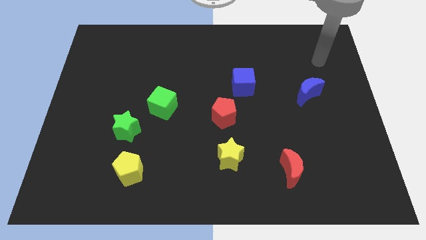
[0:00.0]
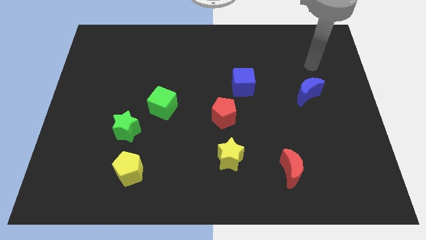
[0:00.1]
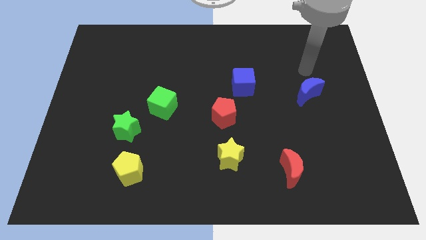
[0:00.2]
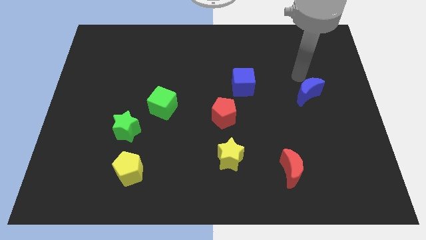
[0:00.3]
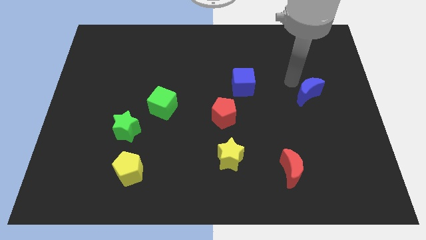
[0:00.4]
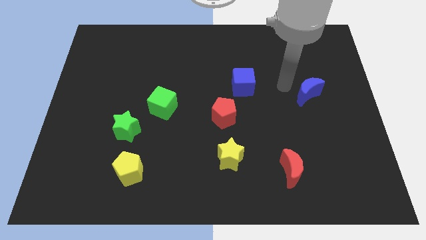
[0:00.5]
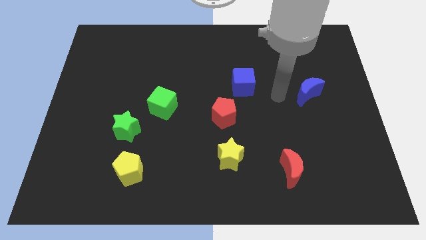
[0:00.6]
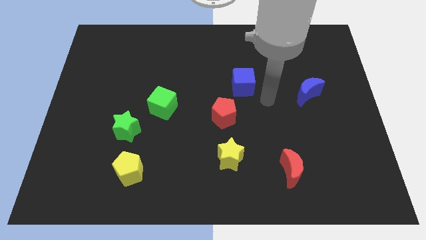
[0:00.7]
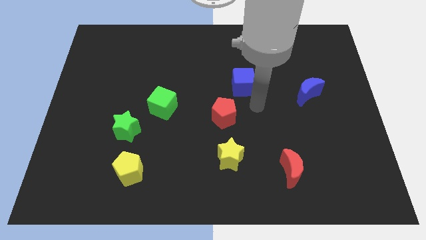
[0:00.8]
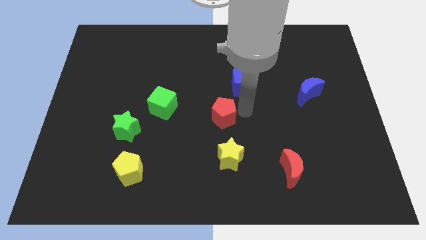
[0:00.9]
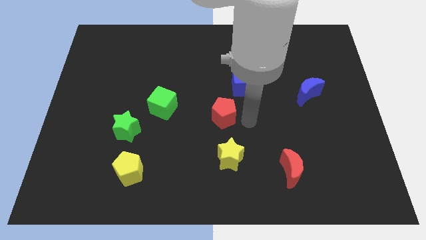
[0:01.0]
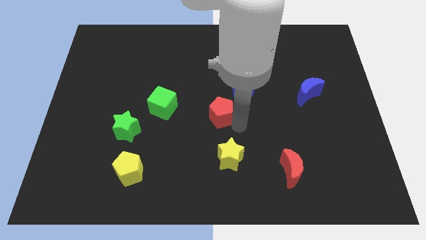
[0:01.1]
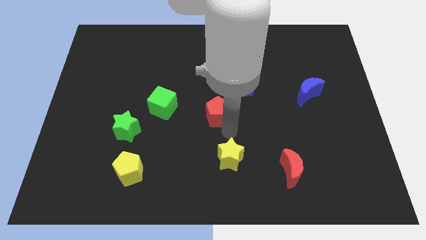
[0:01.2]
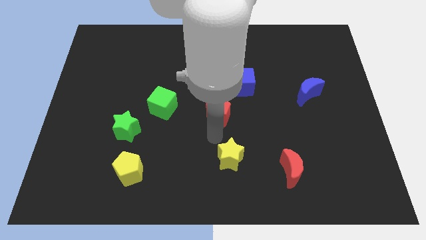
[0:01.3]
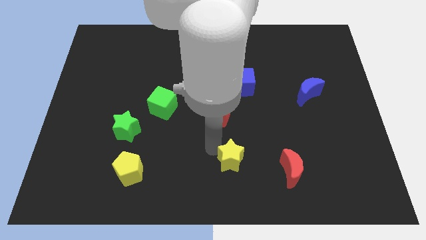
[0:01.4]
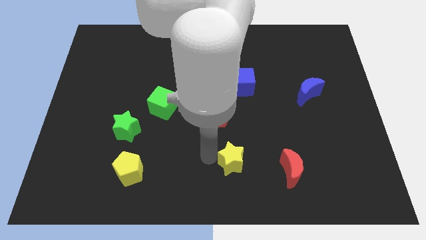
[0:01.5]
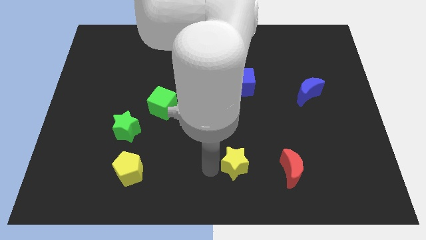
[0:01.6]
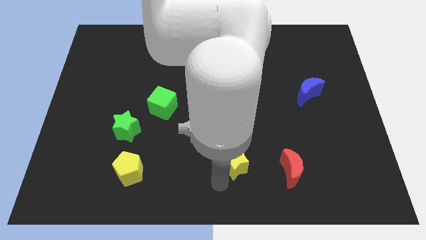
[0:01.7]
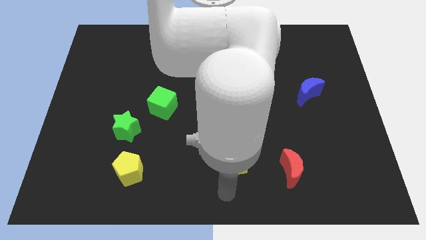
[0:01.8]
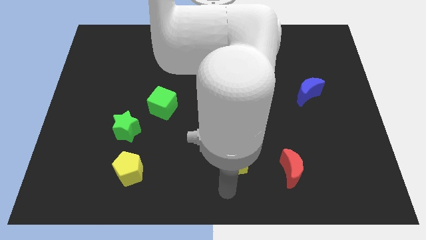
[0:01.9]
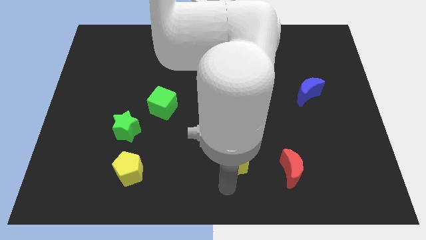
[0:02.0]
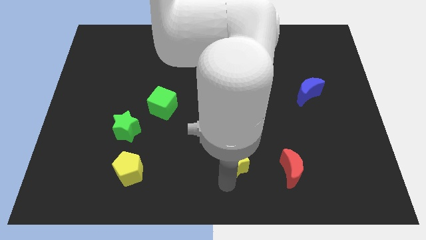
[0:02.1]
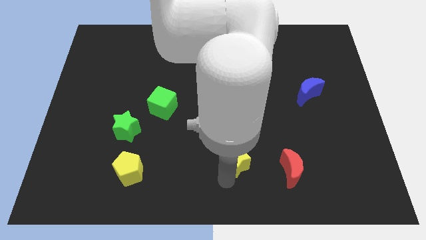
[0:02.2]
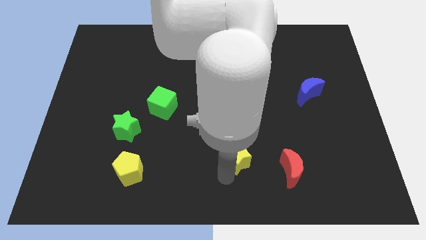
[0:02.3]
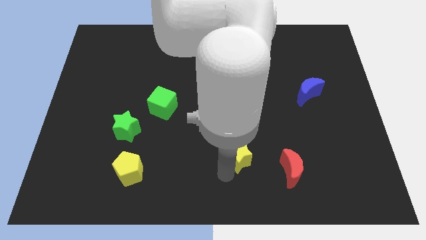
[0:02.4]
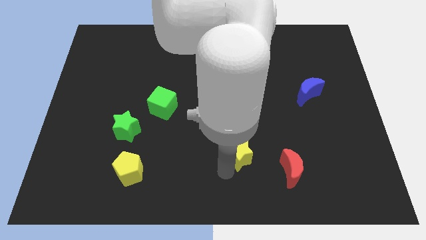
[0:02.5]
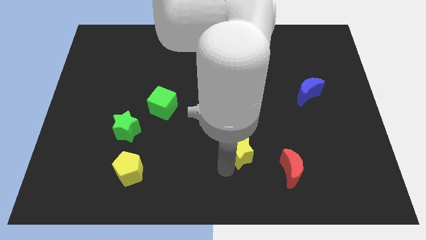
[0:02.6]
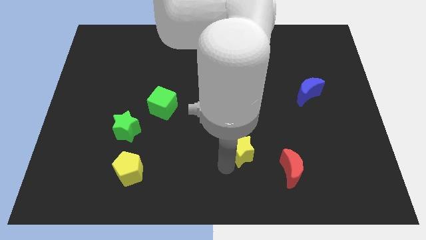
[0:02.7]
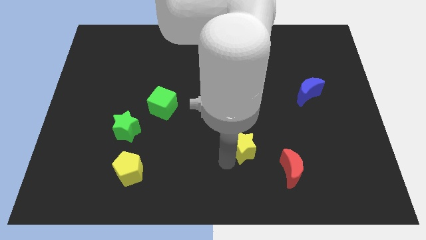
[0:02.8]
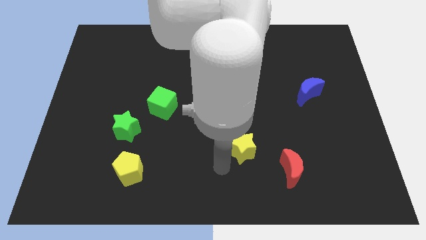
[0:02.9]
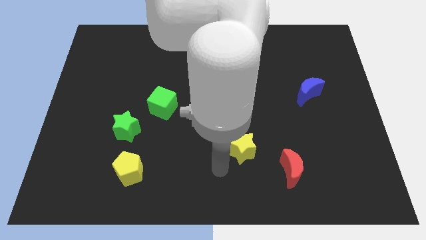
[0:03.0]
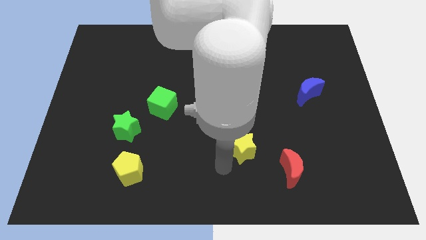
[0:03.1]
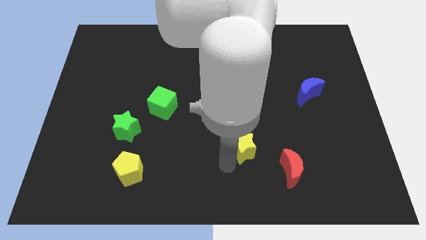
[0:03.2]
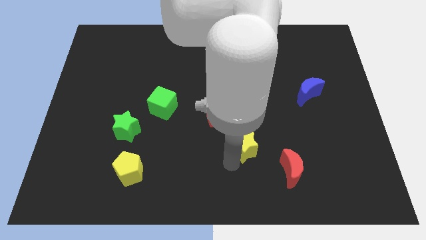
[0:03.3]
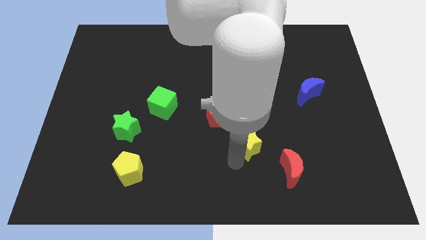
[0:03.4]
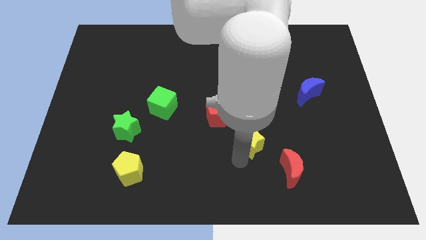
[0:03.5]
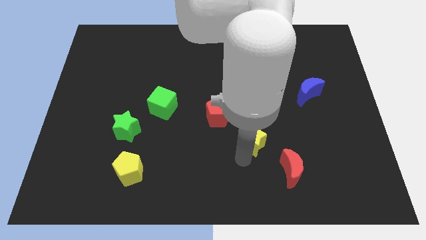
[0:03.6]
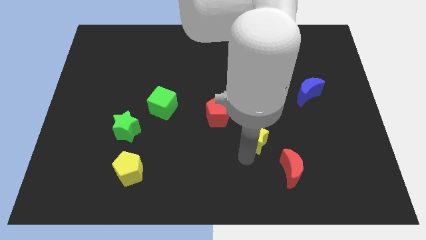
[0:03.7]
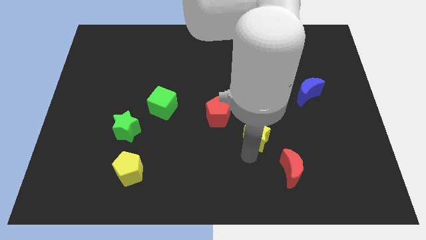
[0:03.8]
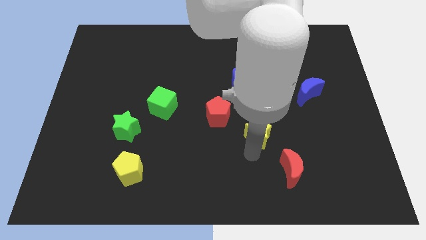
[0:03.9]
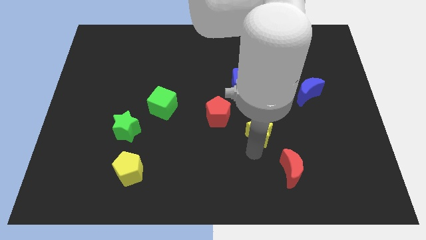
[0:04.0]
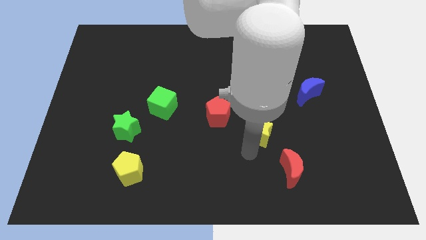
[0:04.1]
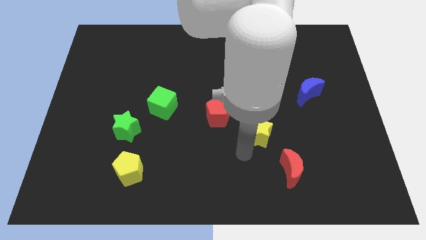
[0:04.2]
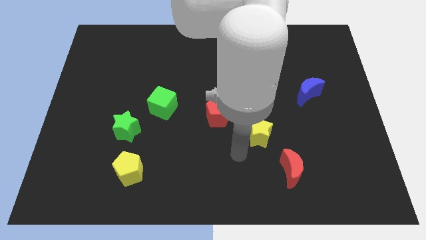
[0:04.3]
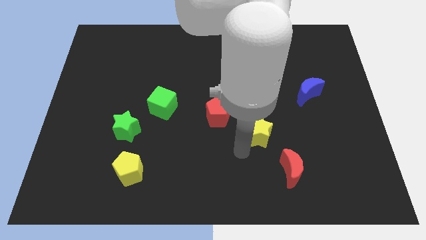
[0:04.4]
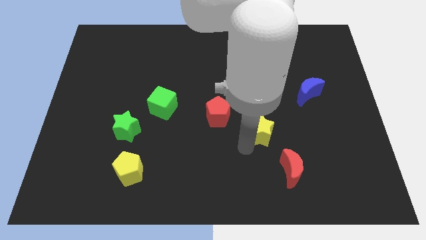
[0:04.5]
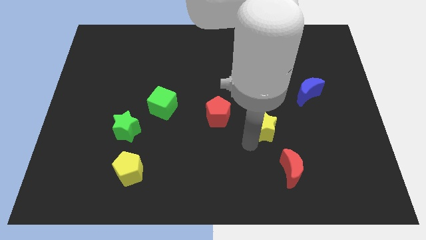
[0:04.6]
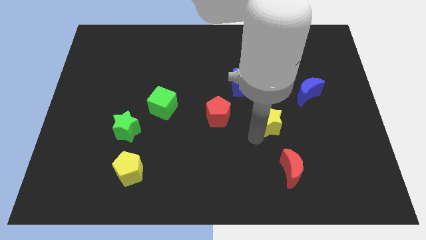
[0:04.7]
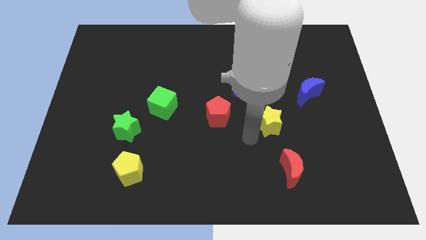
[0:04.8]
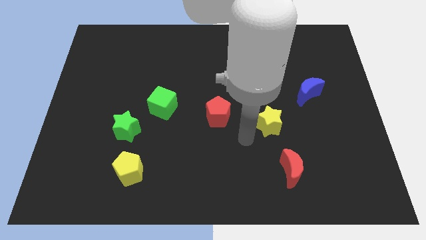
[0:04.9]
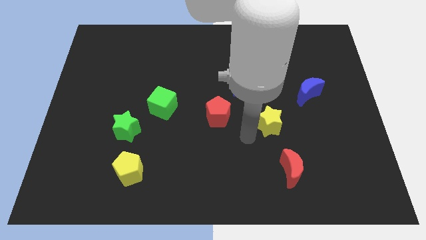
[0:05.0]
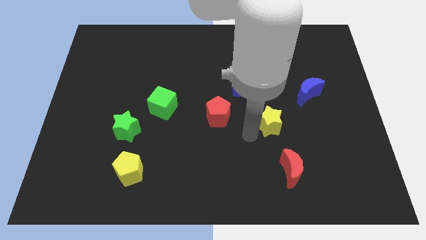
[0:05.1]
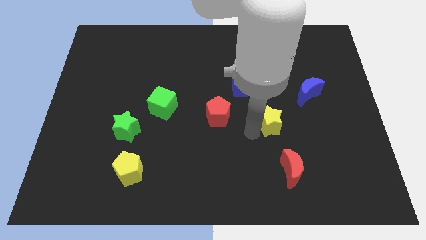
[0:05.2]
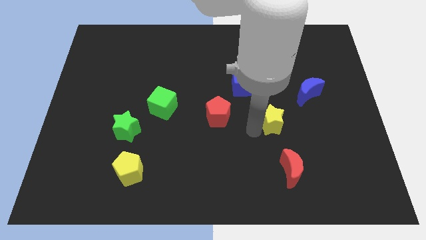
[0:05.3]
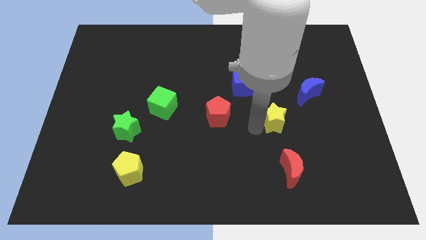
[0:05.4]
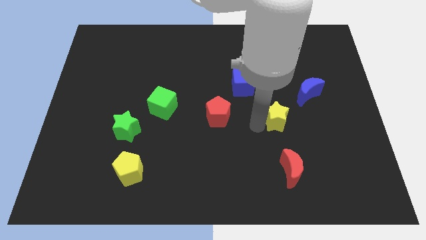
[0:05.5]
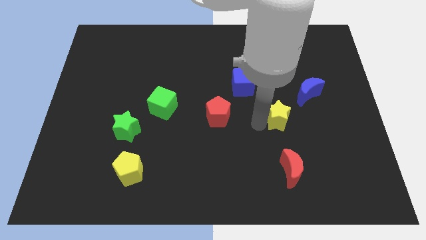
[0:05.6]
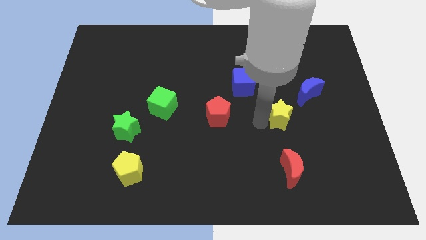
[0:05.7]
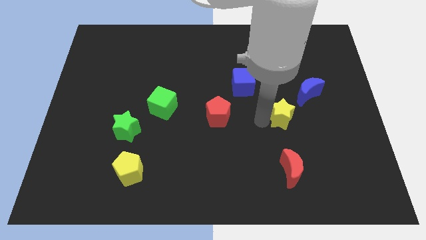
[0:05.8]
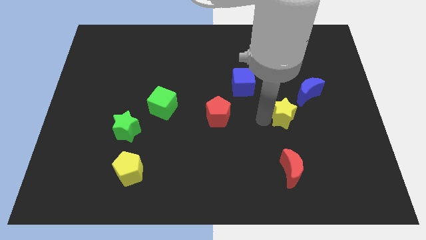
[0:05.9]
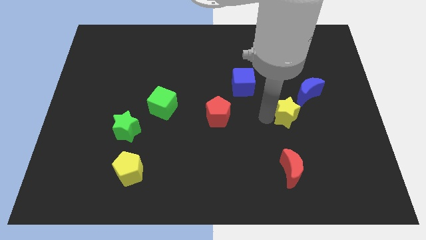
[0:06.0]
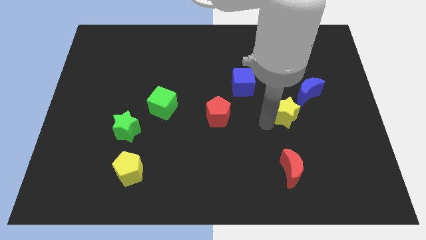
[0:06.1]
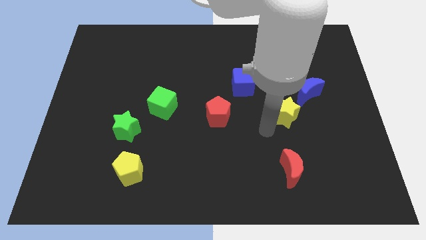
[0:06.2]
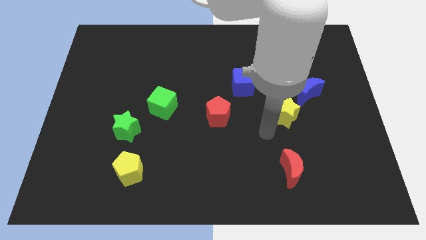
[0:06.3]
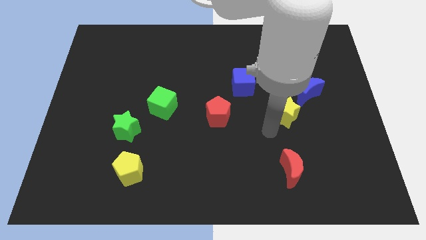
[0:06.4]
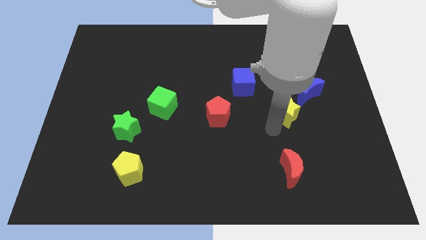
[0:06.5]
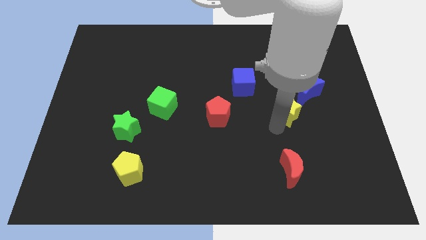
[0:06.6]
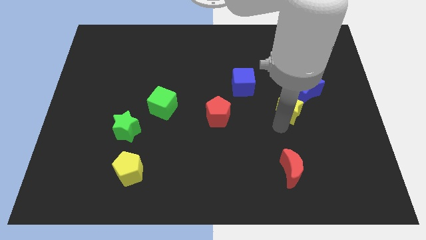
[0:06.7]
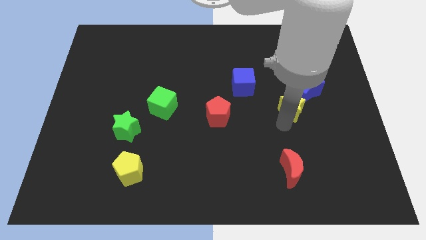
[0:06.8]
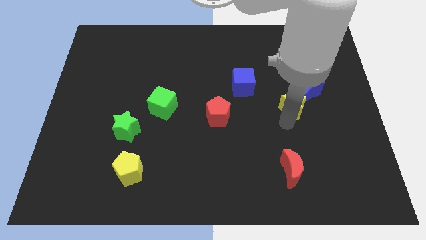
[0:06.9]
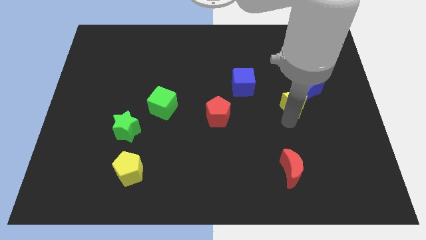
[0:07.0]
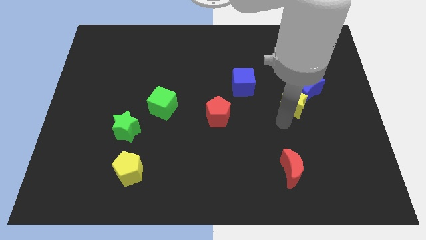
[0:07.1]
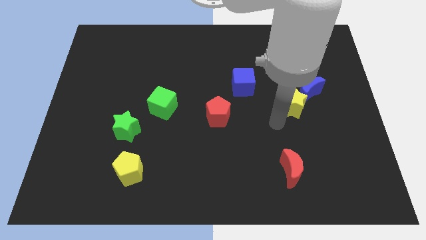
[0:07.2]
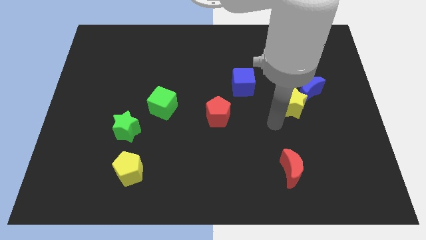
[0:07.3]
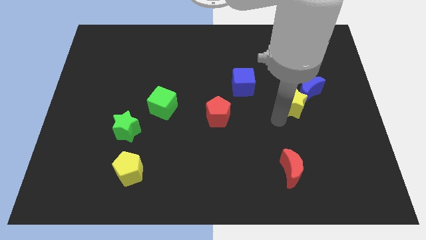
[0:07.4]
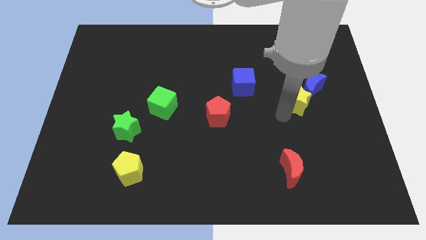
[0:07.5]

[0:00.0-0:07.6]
slide the yellow star to the blue moon

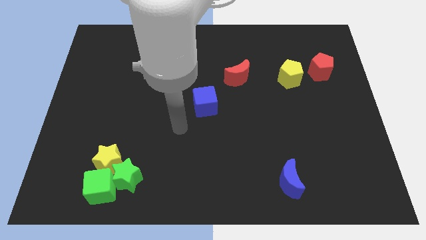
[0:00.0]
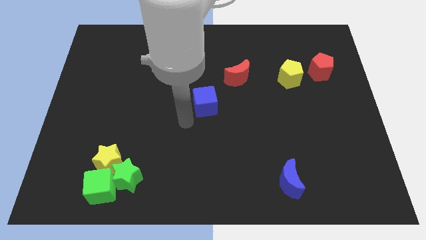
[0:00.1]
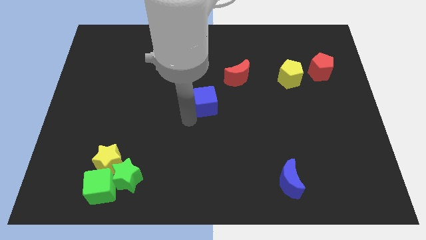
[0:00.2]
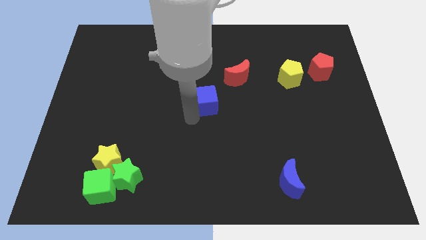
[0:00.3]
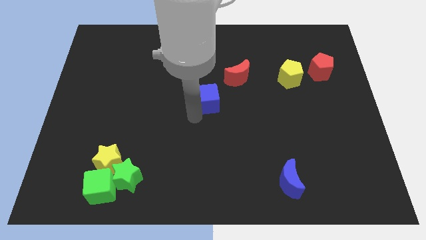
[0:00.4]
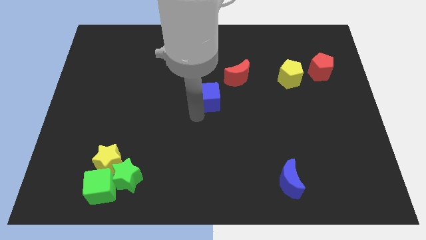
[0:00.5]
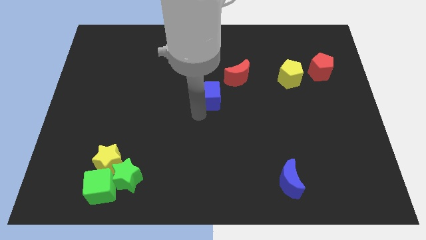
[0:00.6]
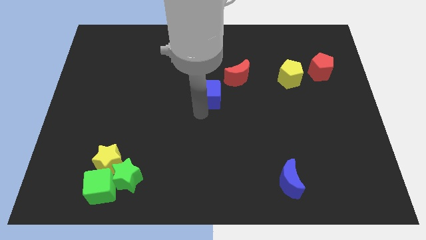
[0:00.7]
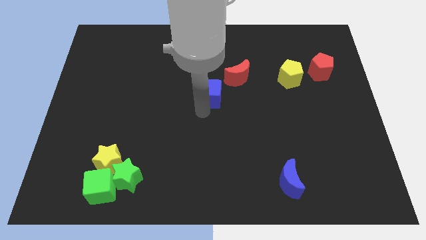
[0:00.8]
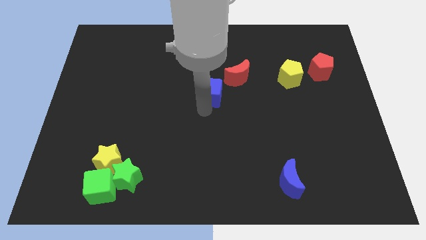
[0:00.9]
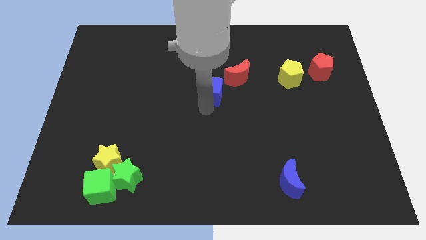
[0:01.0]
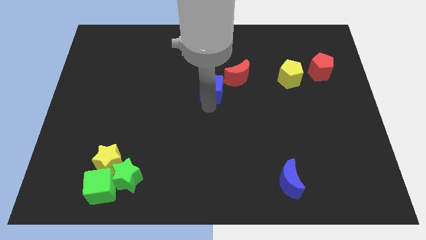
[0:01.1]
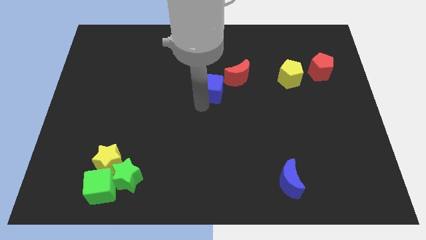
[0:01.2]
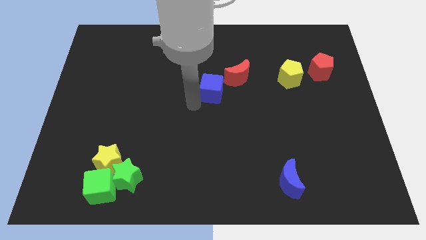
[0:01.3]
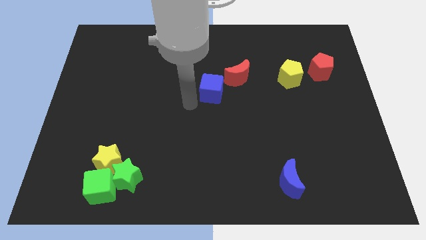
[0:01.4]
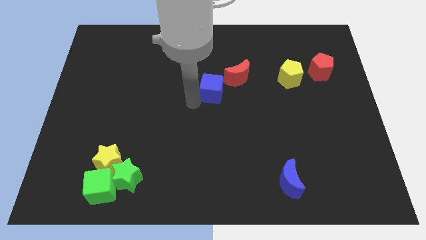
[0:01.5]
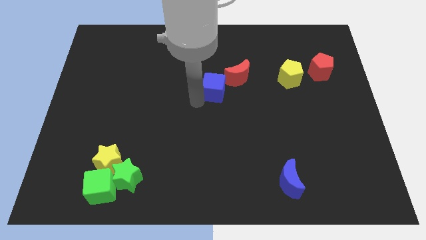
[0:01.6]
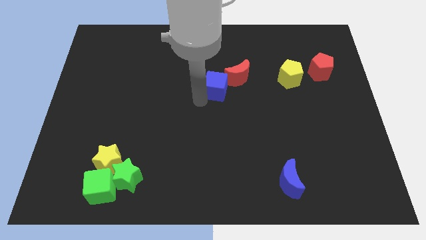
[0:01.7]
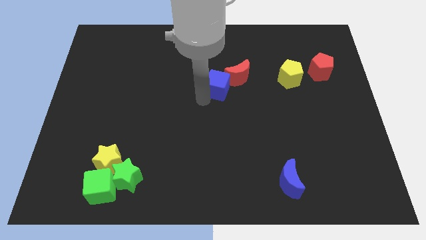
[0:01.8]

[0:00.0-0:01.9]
move the blue cube towards the red moon
